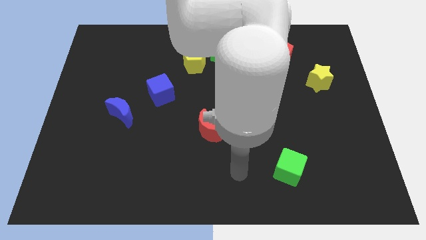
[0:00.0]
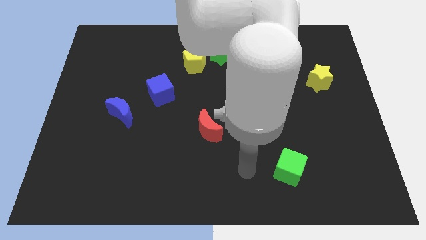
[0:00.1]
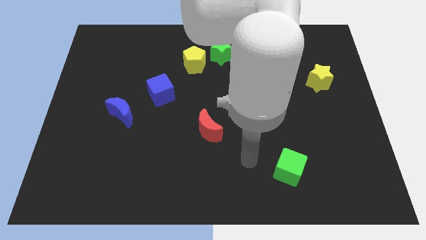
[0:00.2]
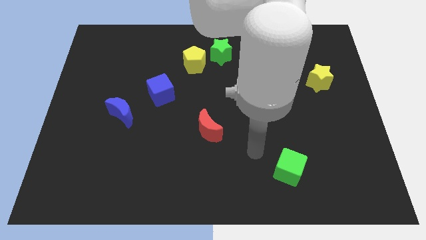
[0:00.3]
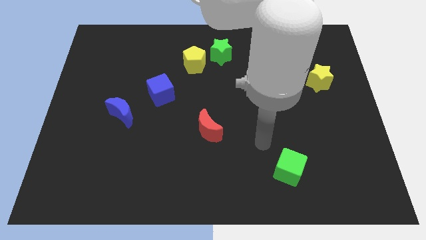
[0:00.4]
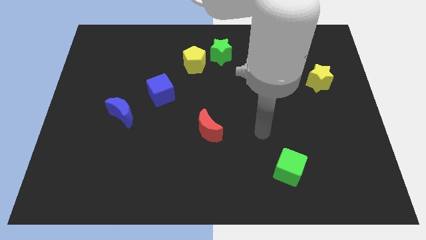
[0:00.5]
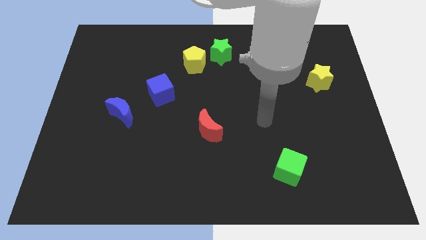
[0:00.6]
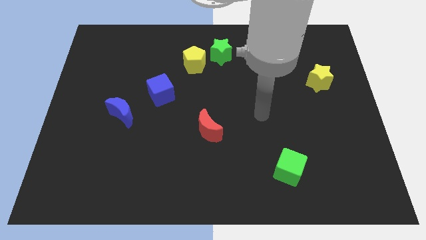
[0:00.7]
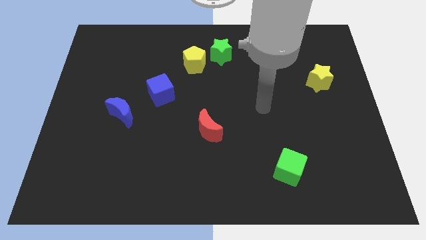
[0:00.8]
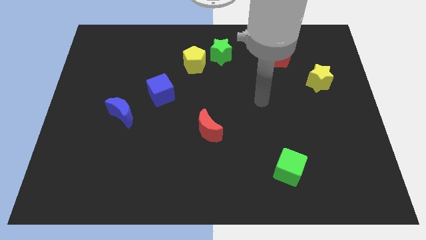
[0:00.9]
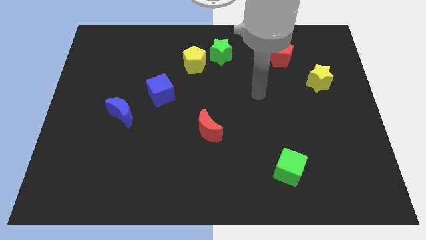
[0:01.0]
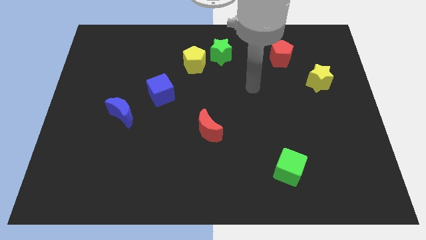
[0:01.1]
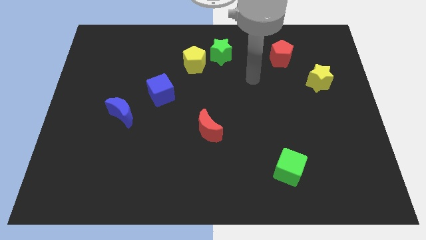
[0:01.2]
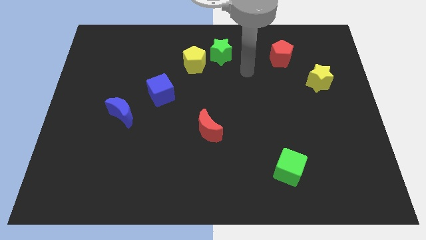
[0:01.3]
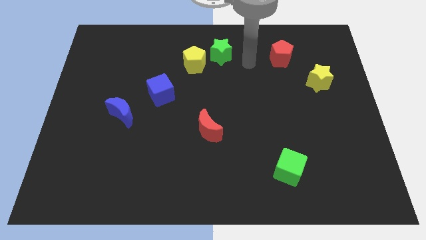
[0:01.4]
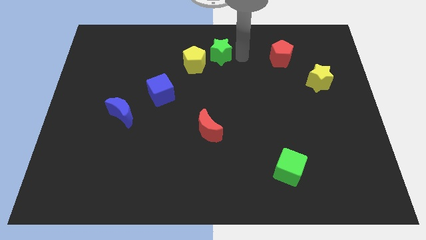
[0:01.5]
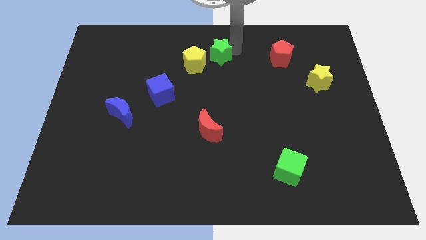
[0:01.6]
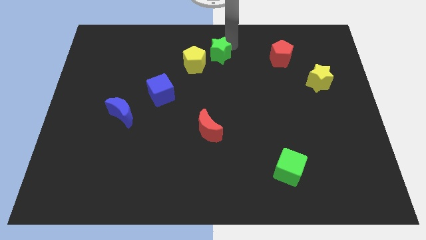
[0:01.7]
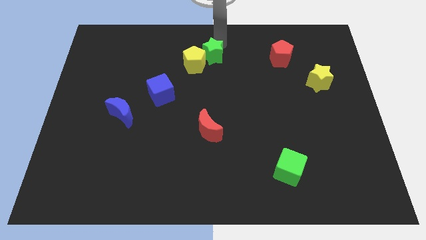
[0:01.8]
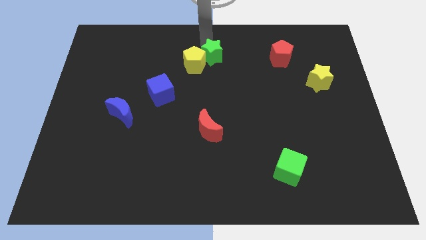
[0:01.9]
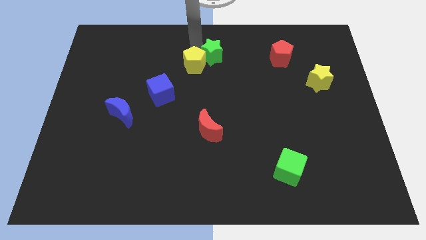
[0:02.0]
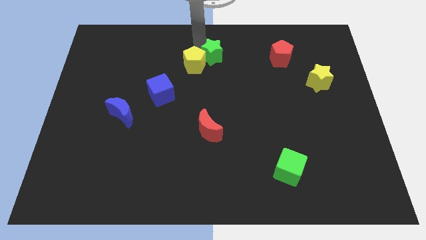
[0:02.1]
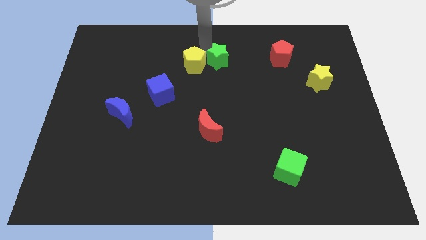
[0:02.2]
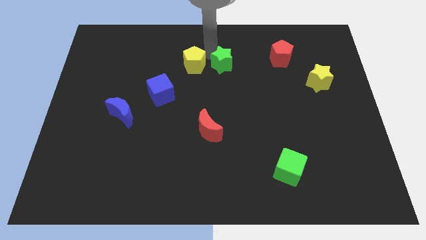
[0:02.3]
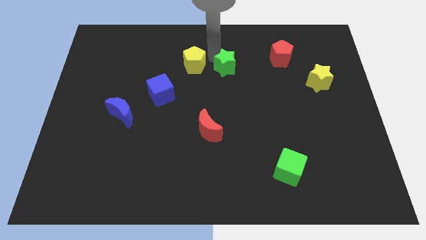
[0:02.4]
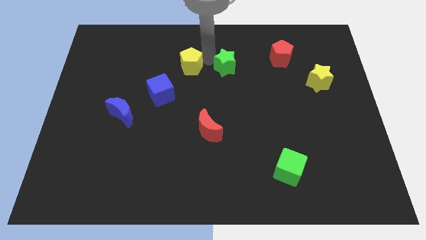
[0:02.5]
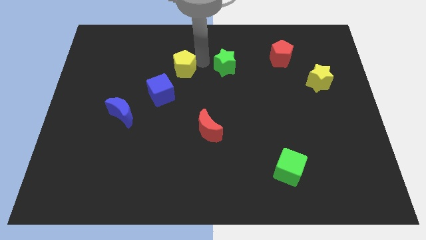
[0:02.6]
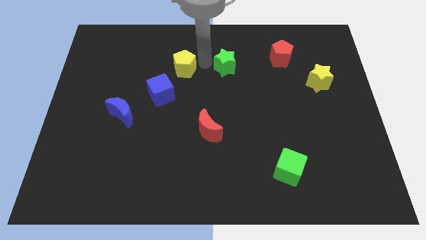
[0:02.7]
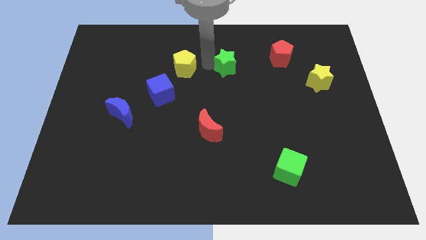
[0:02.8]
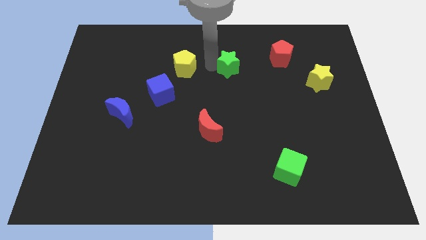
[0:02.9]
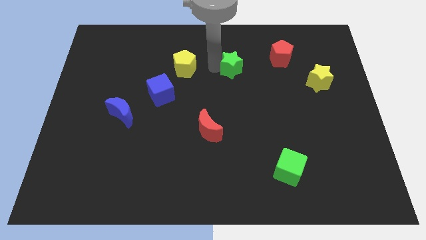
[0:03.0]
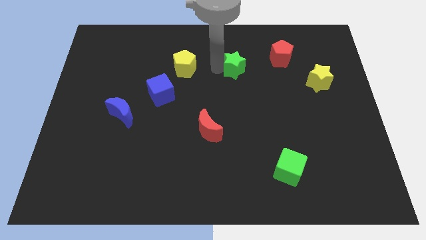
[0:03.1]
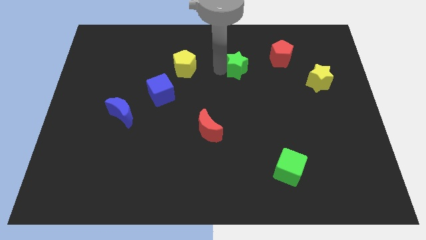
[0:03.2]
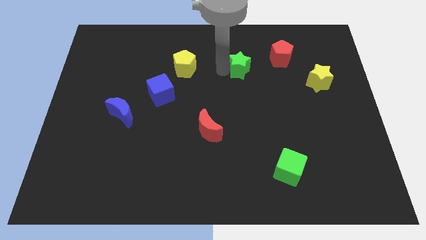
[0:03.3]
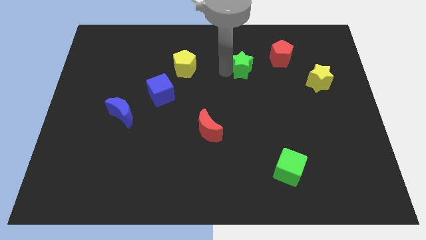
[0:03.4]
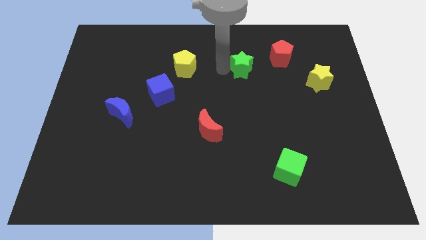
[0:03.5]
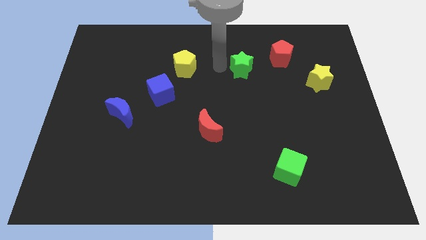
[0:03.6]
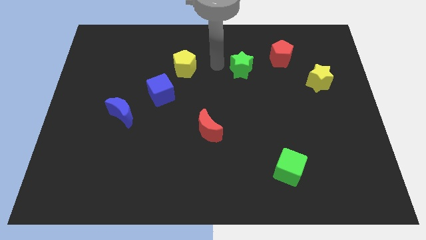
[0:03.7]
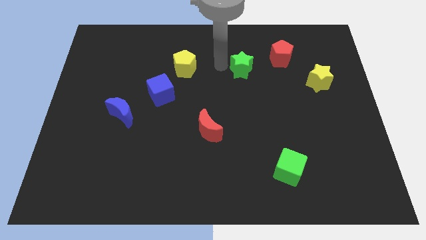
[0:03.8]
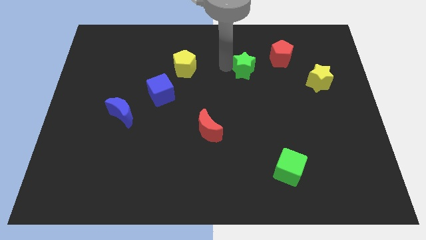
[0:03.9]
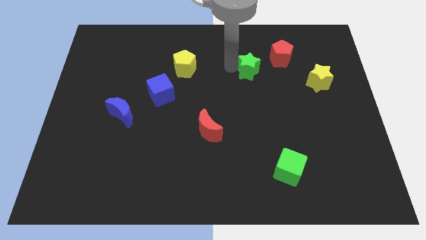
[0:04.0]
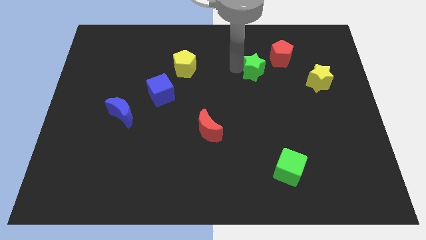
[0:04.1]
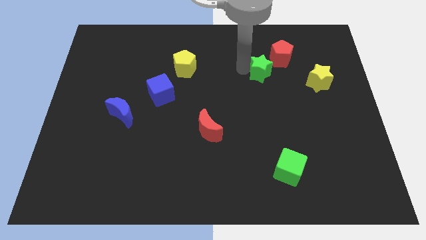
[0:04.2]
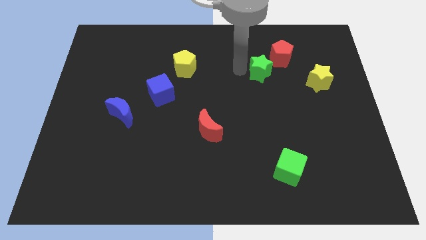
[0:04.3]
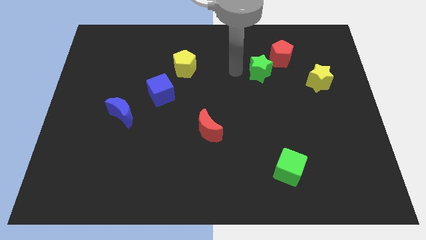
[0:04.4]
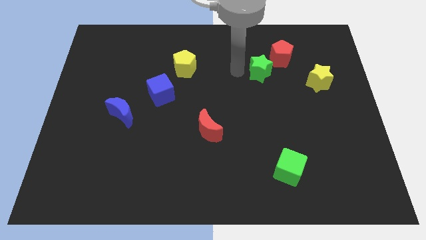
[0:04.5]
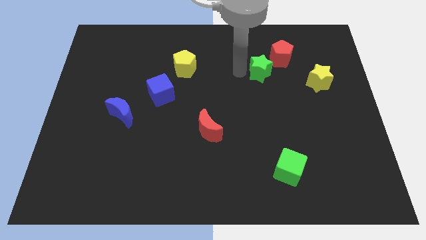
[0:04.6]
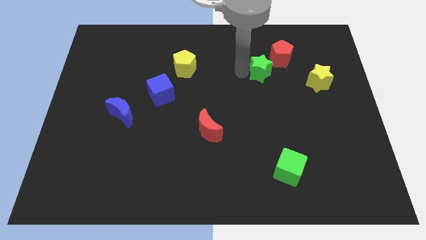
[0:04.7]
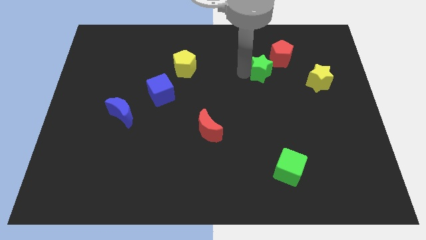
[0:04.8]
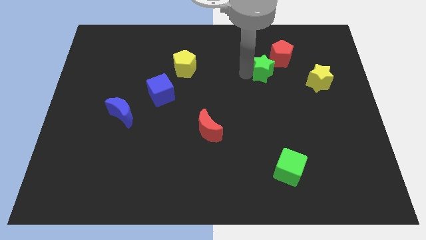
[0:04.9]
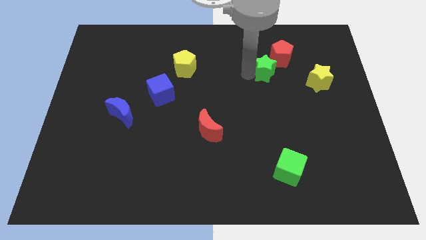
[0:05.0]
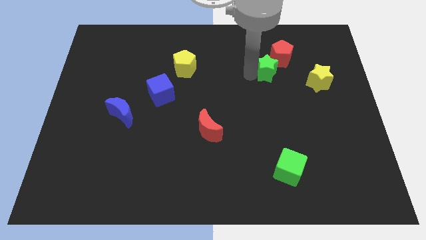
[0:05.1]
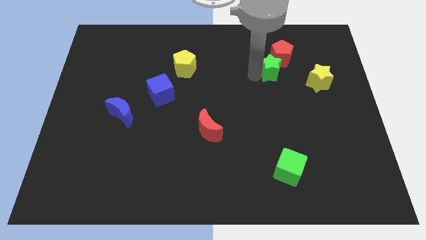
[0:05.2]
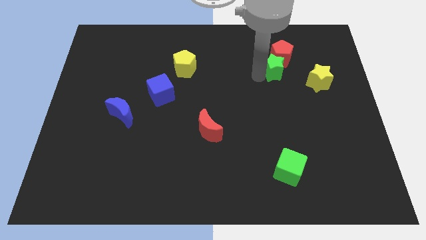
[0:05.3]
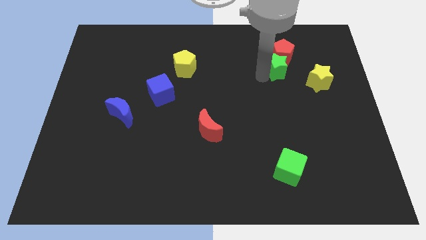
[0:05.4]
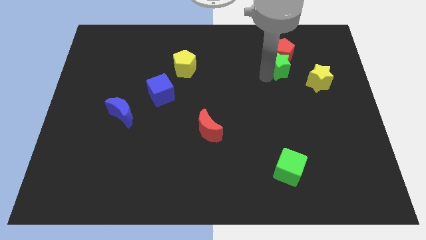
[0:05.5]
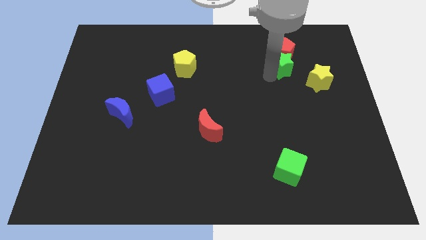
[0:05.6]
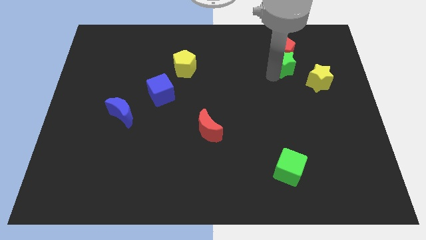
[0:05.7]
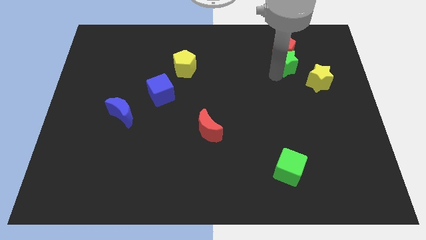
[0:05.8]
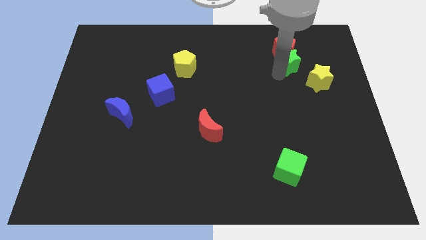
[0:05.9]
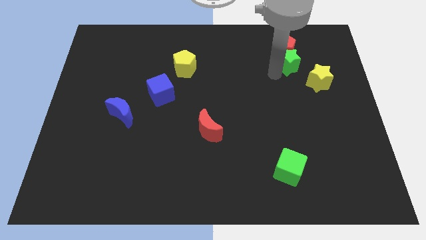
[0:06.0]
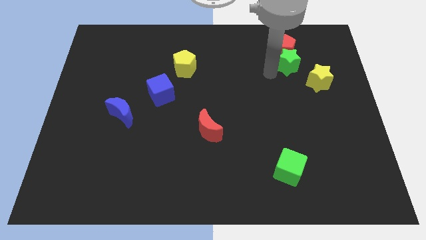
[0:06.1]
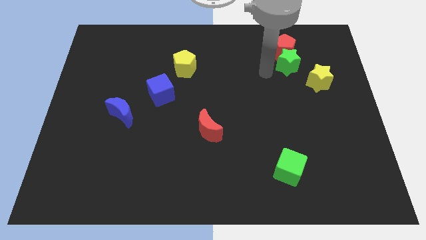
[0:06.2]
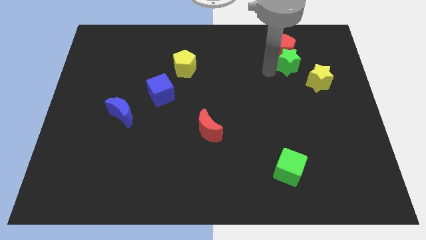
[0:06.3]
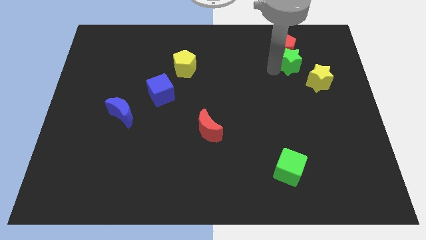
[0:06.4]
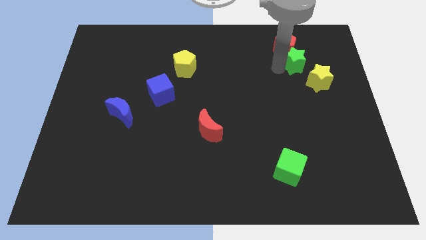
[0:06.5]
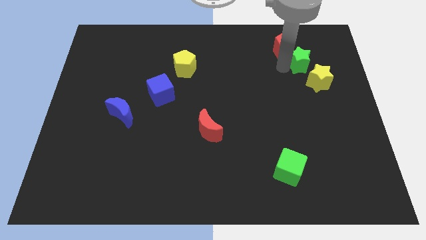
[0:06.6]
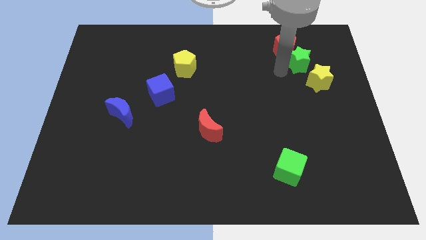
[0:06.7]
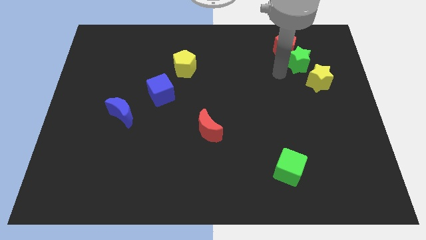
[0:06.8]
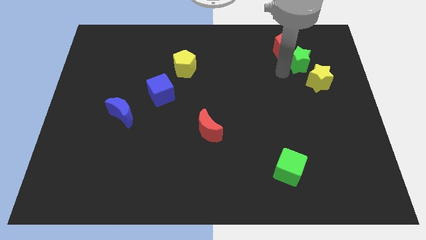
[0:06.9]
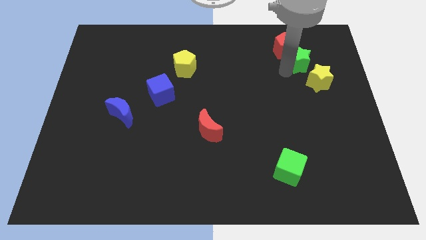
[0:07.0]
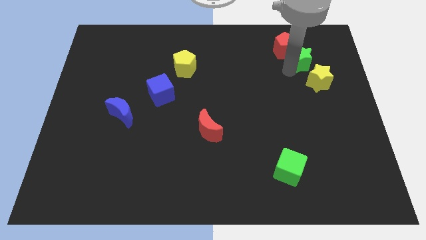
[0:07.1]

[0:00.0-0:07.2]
slide the green star right of the red pentagon
